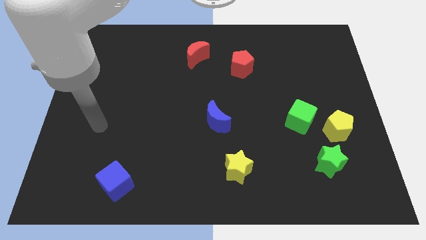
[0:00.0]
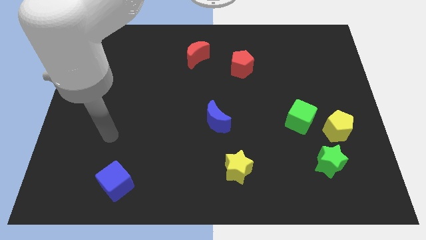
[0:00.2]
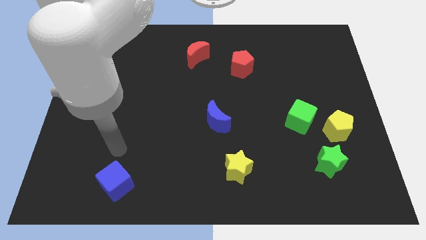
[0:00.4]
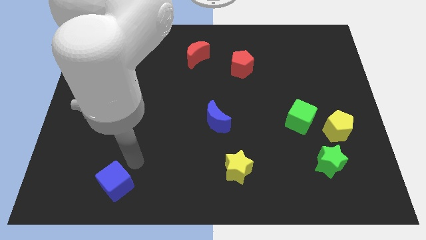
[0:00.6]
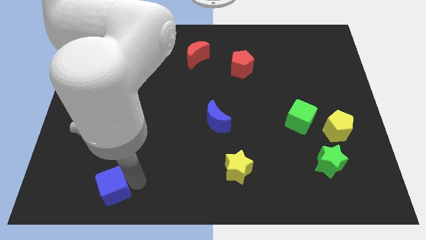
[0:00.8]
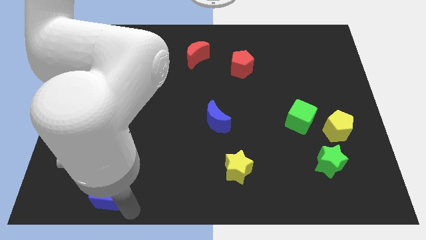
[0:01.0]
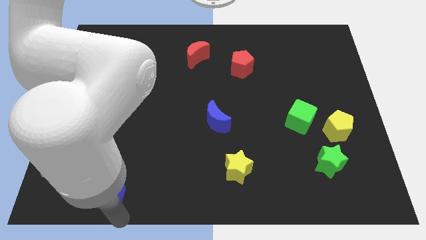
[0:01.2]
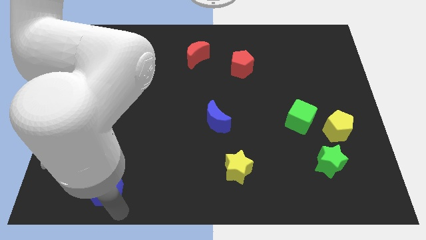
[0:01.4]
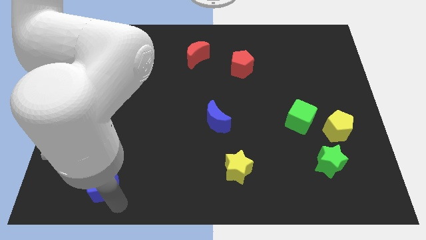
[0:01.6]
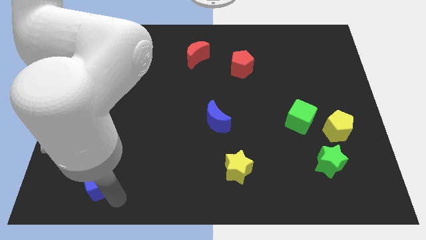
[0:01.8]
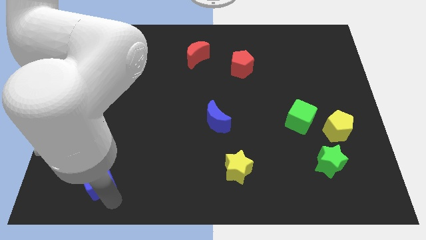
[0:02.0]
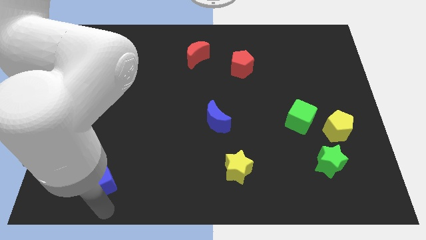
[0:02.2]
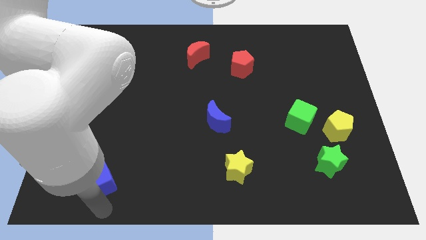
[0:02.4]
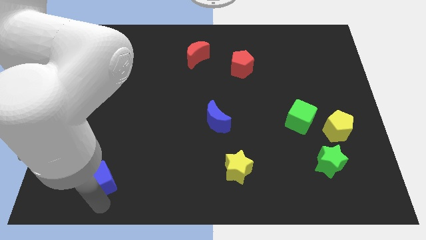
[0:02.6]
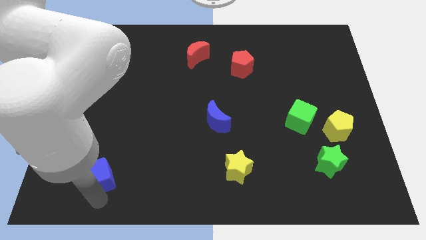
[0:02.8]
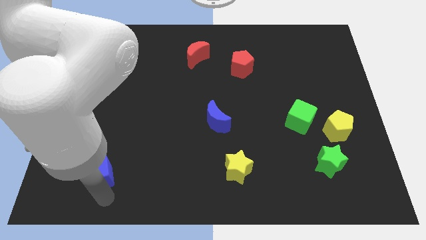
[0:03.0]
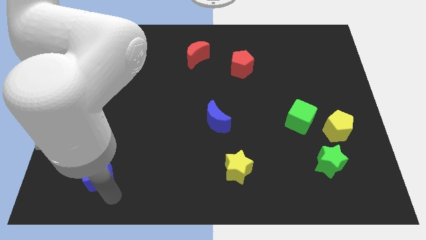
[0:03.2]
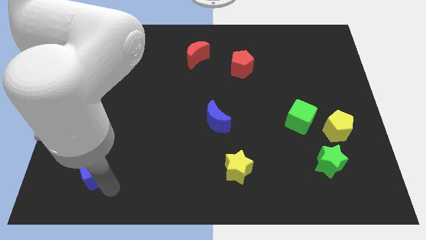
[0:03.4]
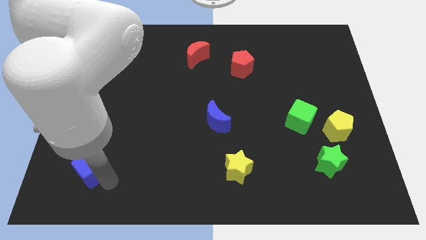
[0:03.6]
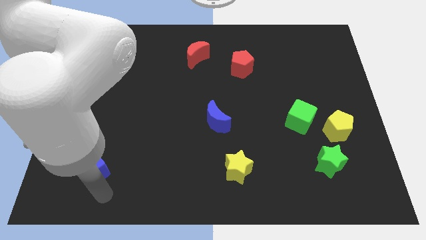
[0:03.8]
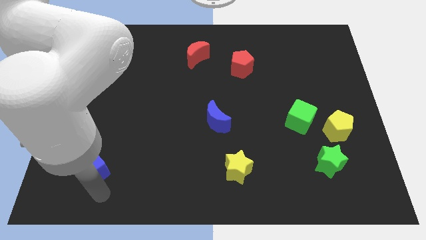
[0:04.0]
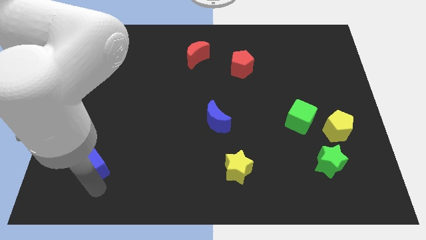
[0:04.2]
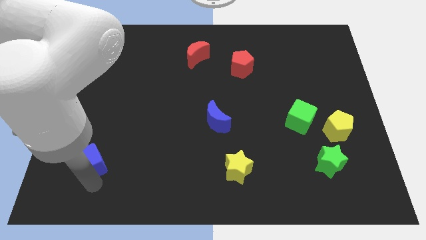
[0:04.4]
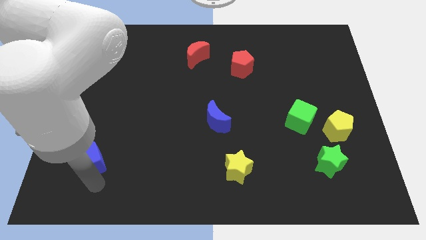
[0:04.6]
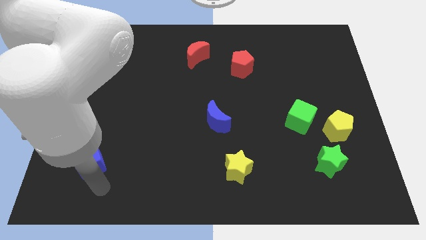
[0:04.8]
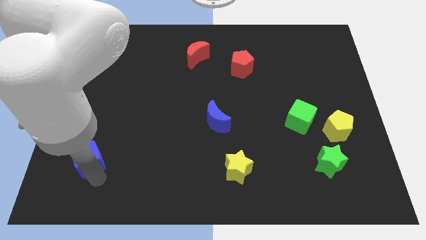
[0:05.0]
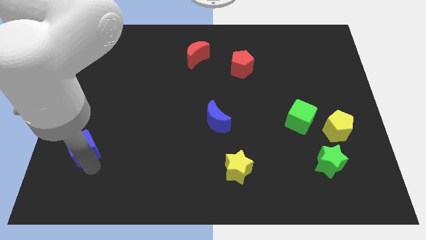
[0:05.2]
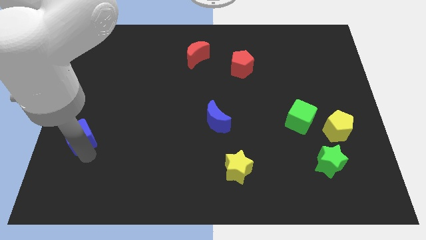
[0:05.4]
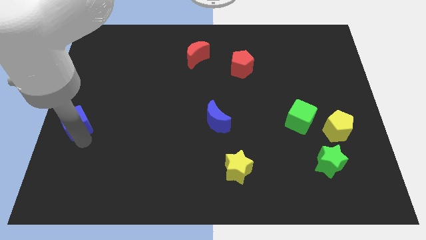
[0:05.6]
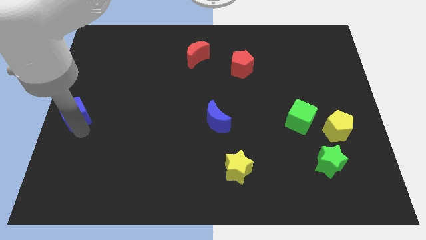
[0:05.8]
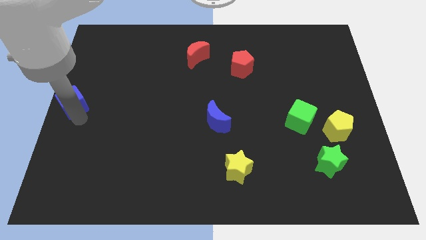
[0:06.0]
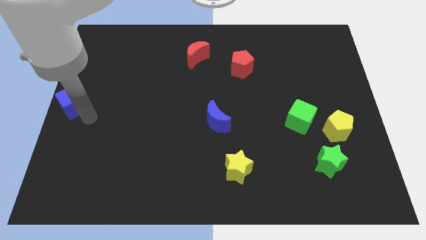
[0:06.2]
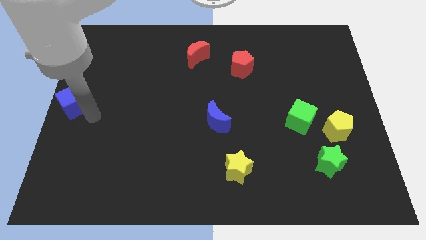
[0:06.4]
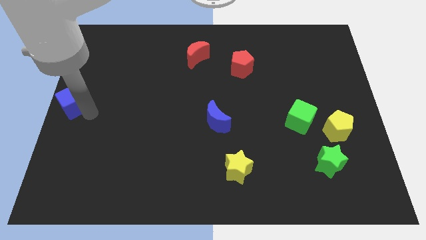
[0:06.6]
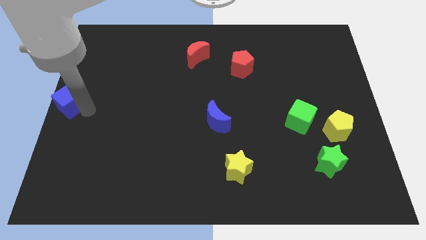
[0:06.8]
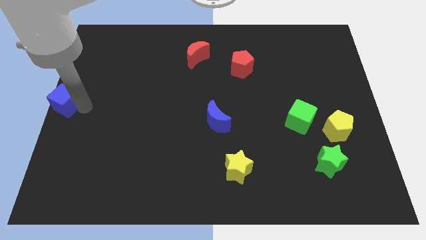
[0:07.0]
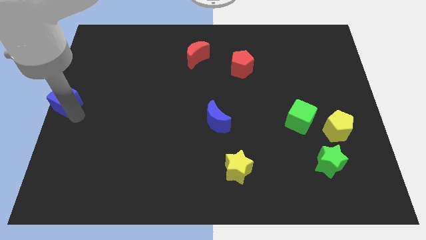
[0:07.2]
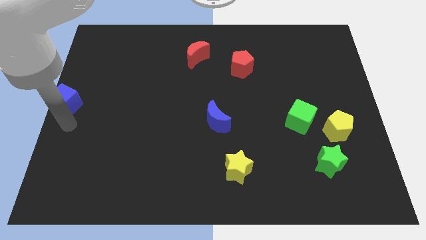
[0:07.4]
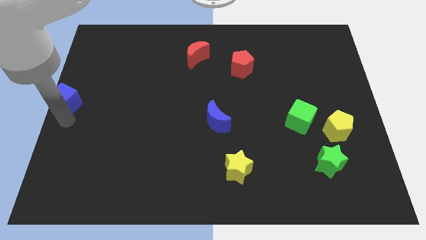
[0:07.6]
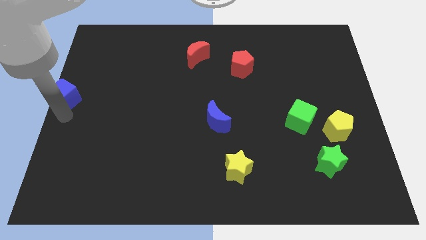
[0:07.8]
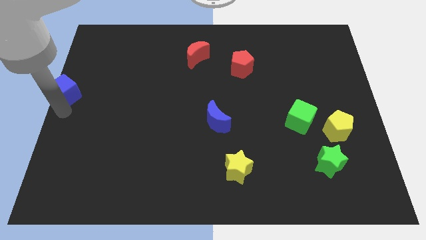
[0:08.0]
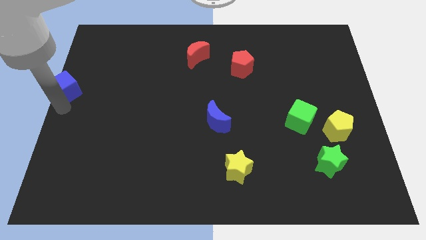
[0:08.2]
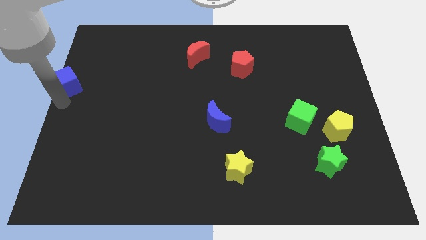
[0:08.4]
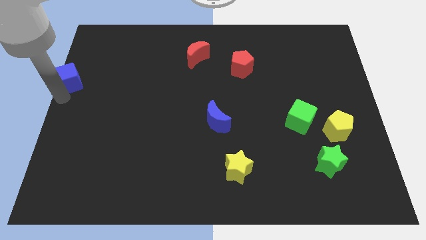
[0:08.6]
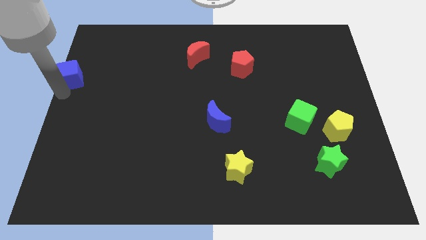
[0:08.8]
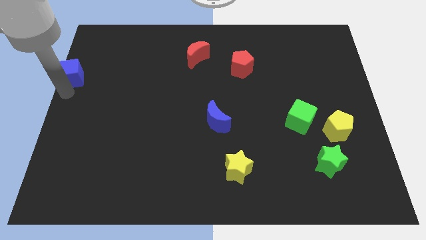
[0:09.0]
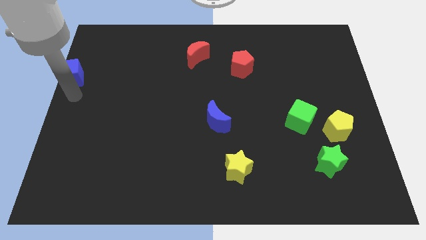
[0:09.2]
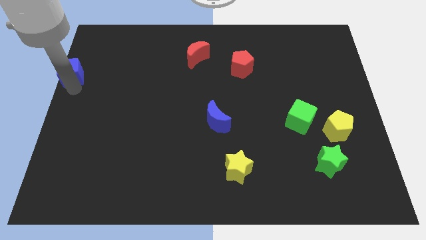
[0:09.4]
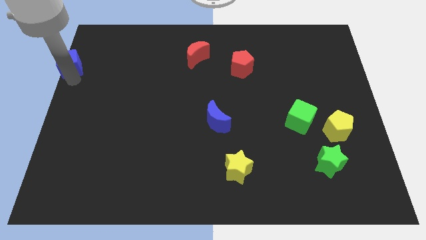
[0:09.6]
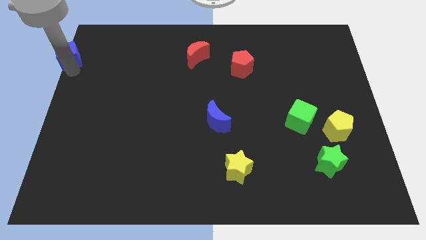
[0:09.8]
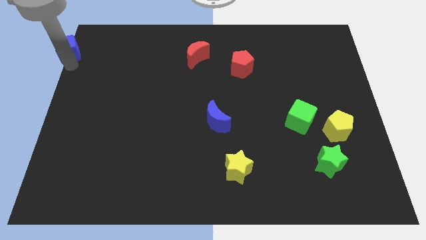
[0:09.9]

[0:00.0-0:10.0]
move the blue cube to the top left
